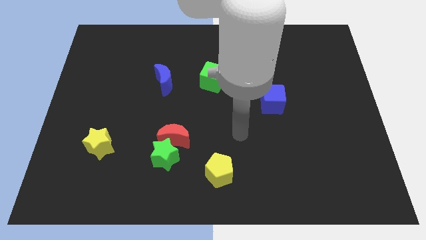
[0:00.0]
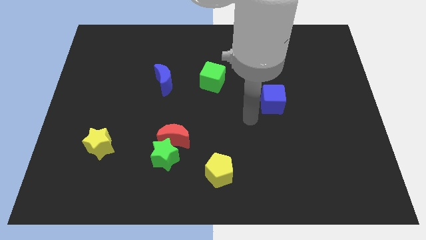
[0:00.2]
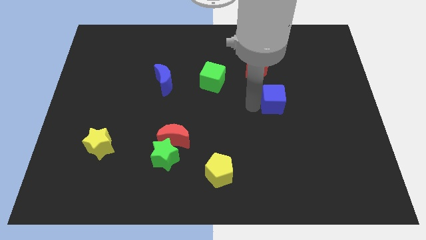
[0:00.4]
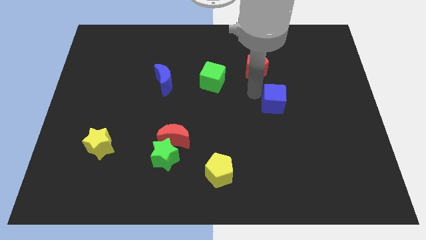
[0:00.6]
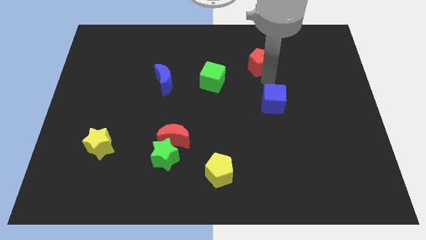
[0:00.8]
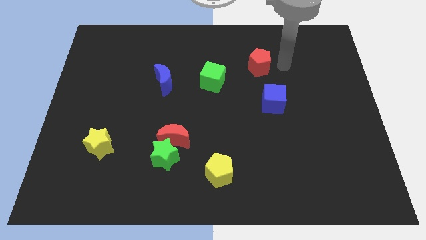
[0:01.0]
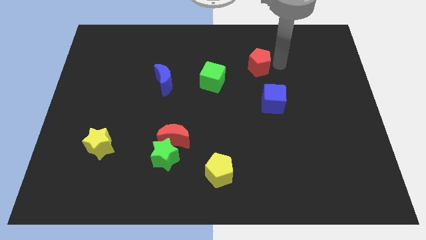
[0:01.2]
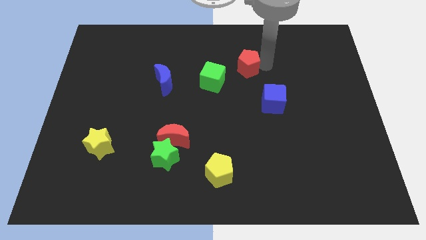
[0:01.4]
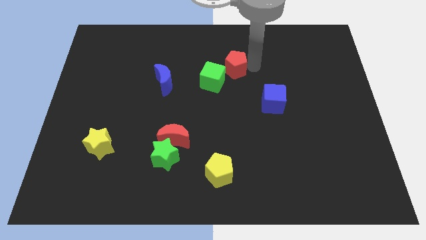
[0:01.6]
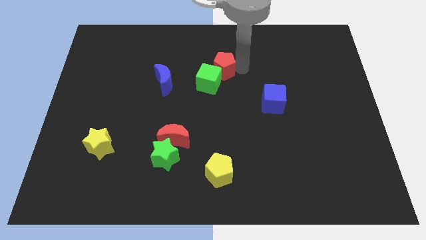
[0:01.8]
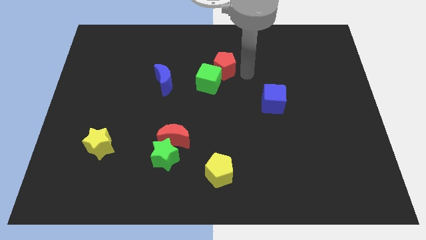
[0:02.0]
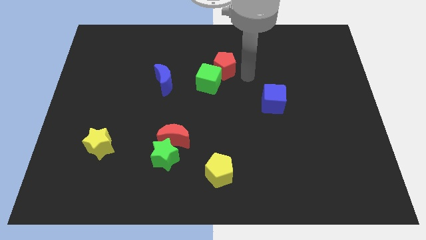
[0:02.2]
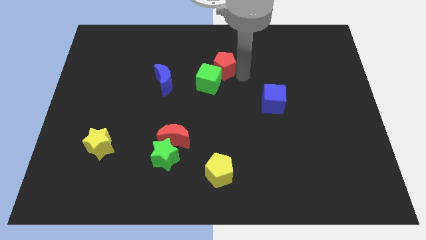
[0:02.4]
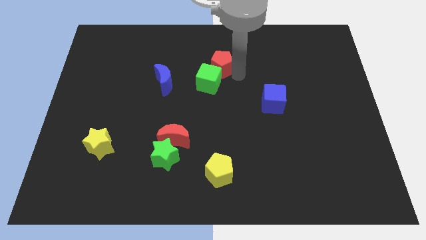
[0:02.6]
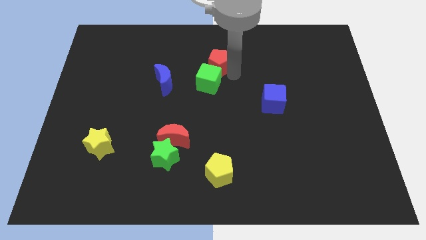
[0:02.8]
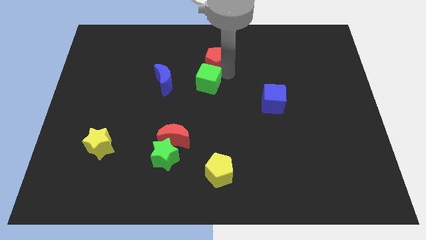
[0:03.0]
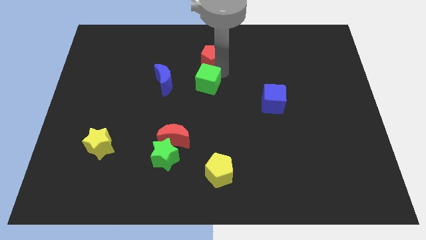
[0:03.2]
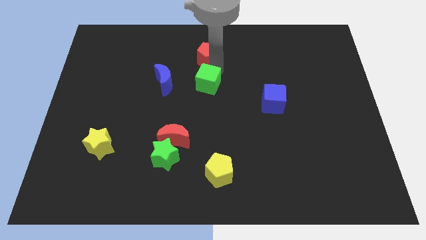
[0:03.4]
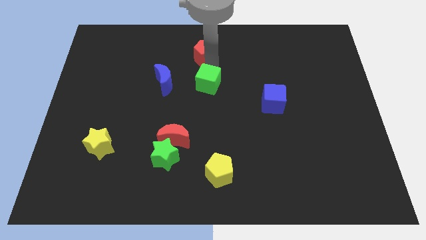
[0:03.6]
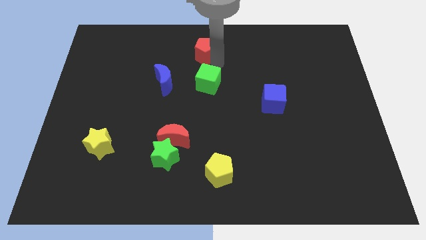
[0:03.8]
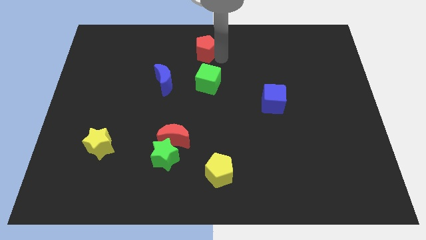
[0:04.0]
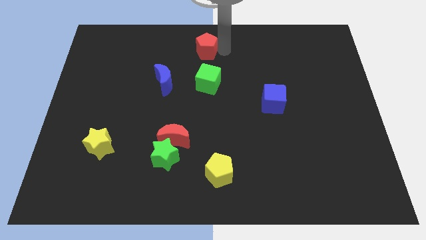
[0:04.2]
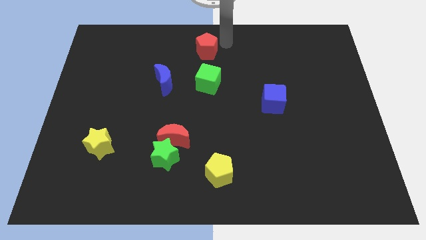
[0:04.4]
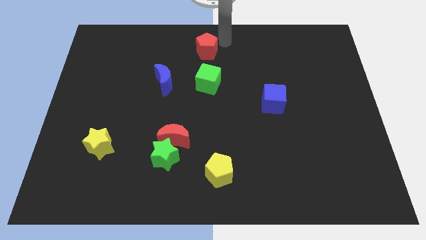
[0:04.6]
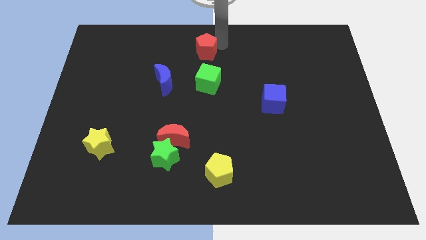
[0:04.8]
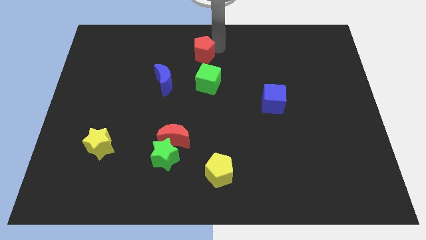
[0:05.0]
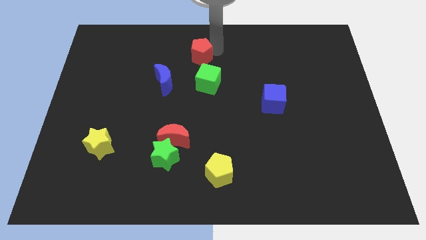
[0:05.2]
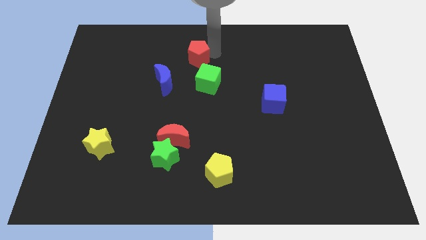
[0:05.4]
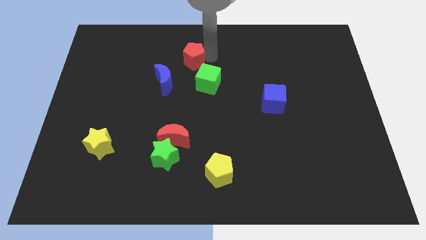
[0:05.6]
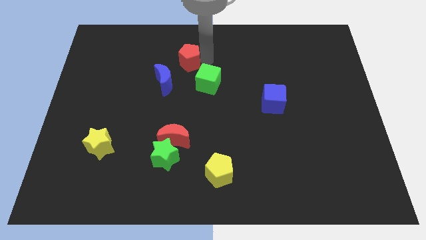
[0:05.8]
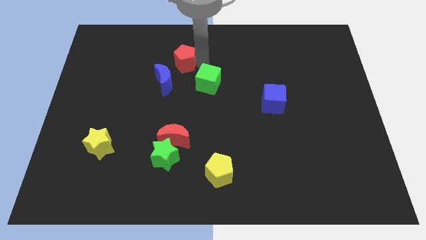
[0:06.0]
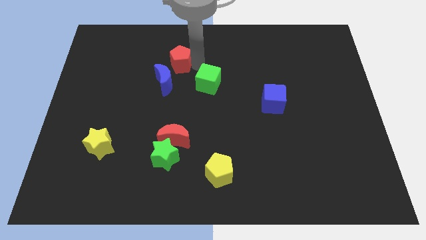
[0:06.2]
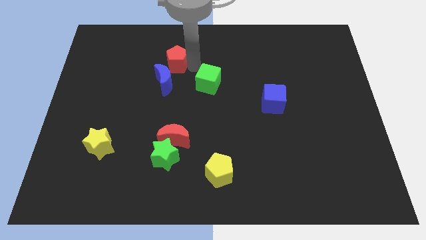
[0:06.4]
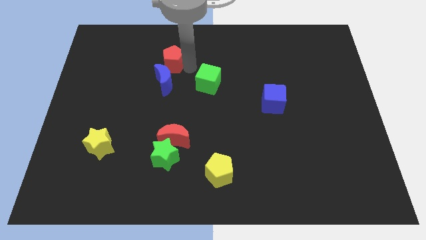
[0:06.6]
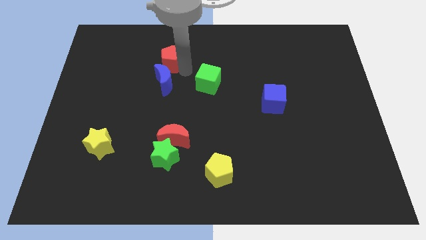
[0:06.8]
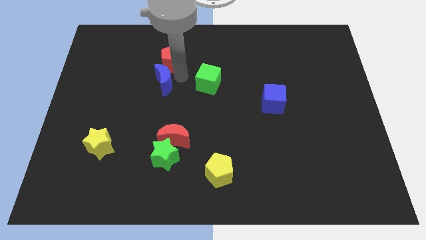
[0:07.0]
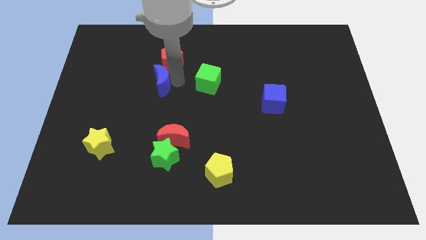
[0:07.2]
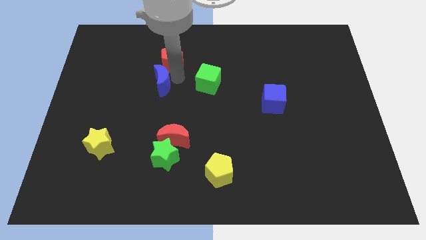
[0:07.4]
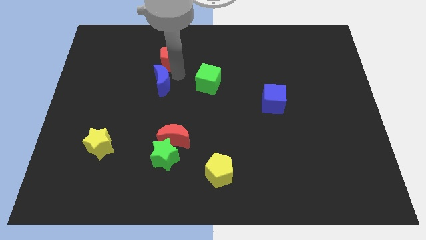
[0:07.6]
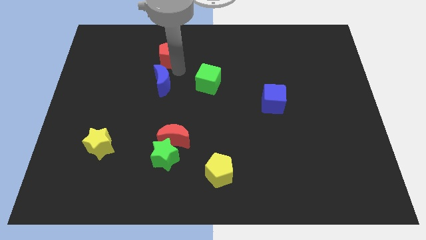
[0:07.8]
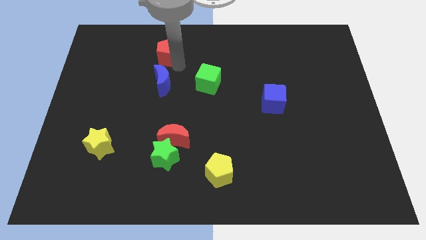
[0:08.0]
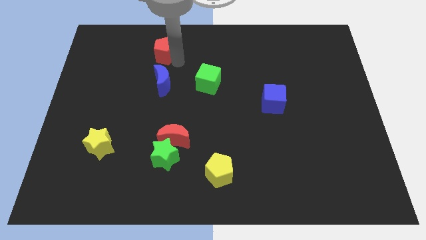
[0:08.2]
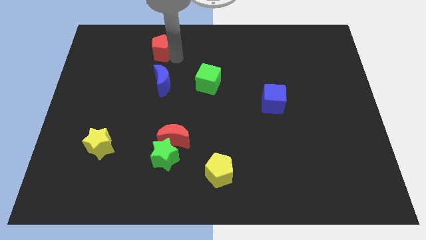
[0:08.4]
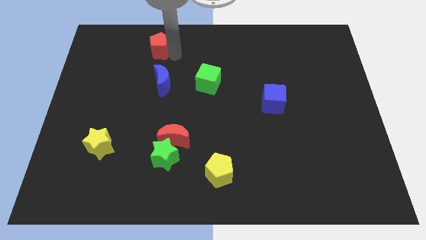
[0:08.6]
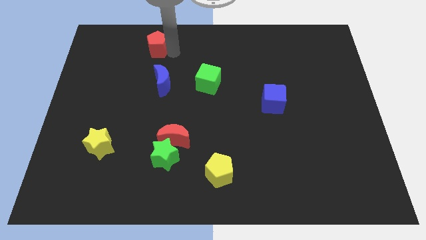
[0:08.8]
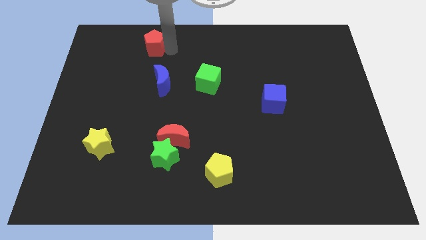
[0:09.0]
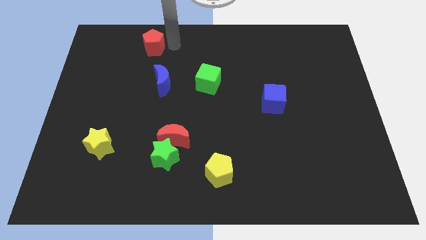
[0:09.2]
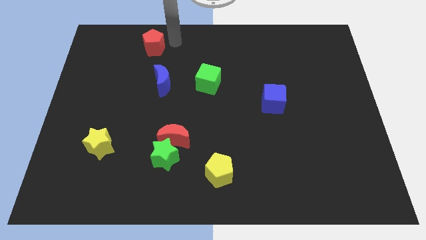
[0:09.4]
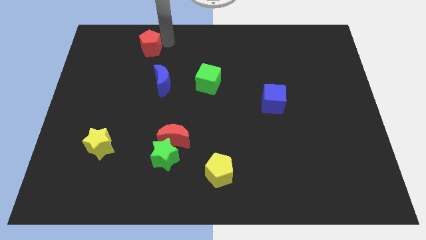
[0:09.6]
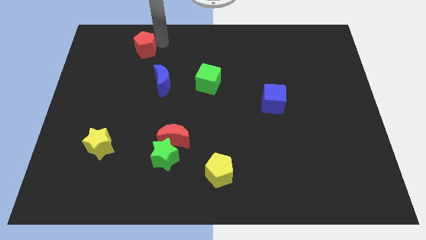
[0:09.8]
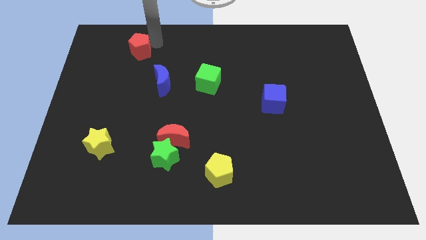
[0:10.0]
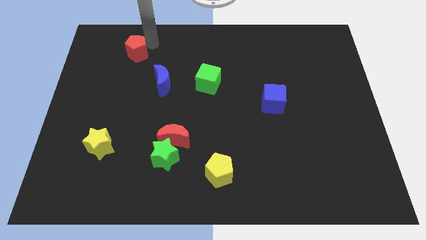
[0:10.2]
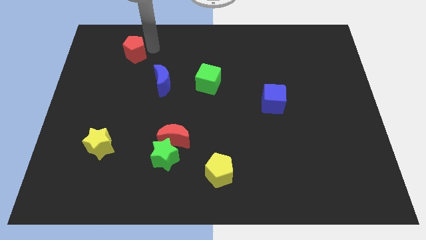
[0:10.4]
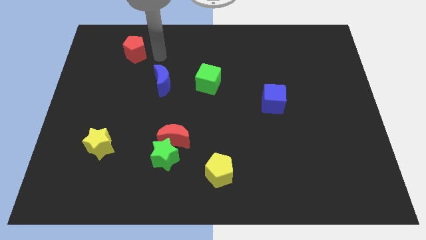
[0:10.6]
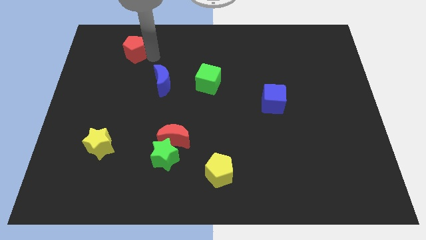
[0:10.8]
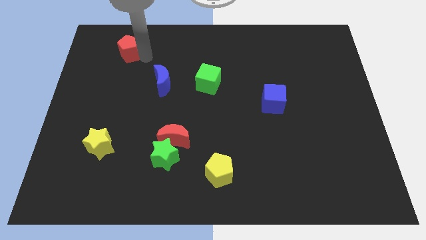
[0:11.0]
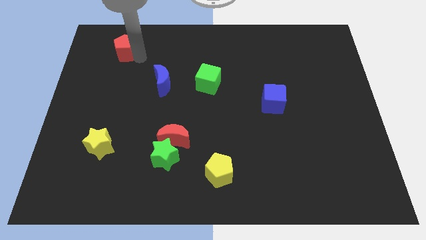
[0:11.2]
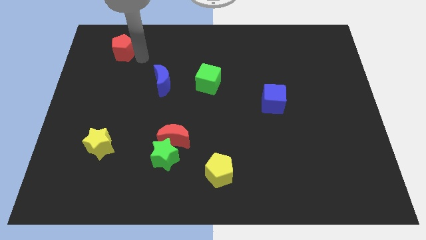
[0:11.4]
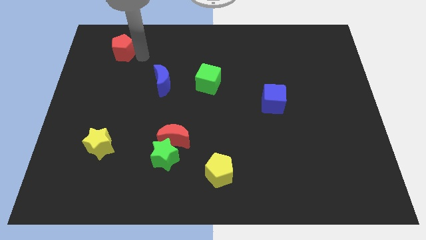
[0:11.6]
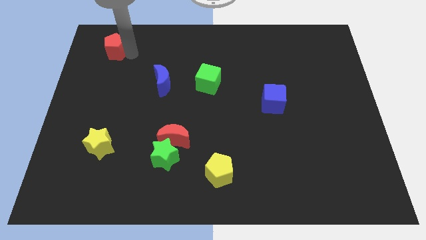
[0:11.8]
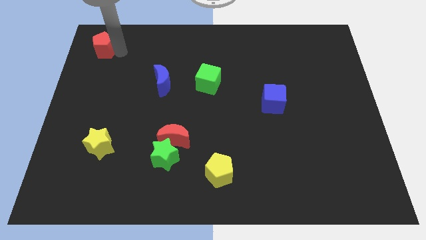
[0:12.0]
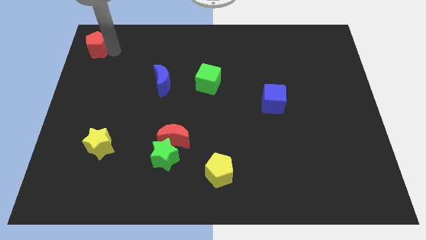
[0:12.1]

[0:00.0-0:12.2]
put the red pentagon to the top left of the board
